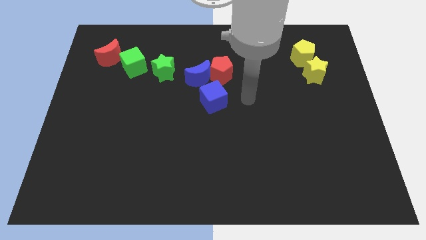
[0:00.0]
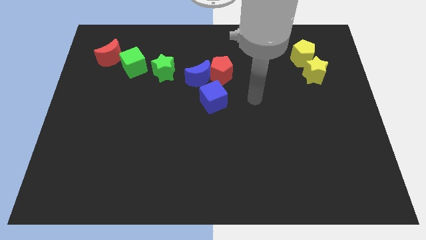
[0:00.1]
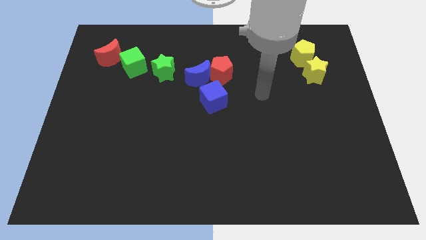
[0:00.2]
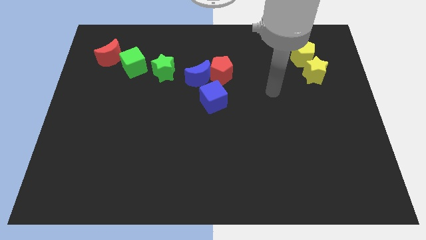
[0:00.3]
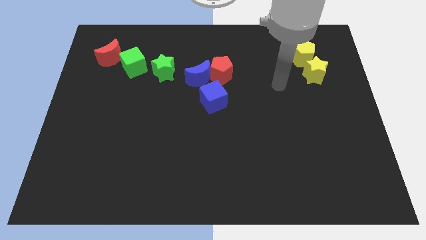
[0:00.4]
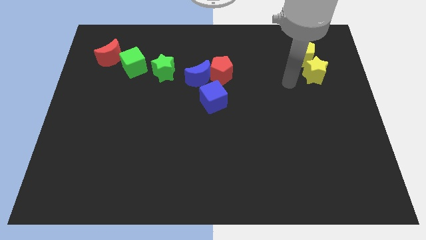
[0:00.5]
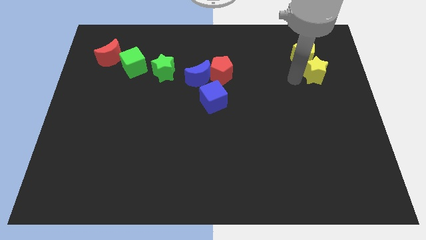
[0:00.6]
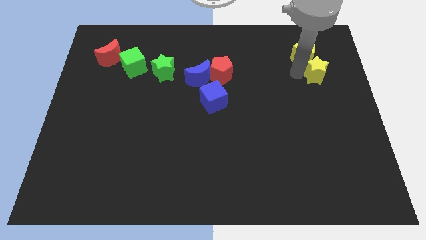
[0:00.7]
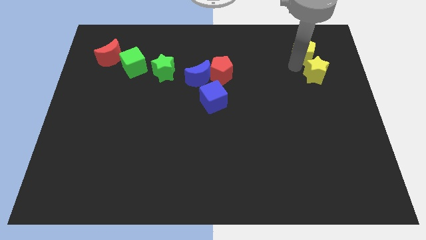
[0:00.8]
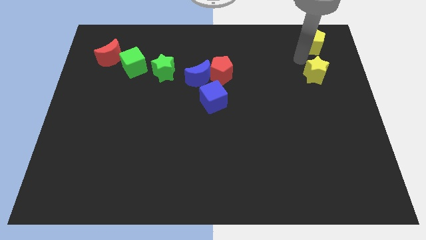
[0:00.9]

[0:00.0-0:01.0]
separate the yellow star from the yellow pentagon

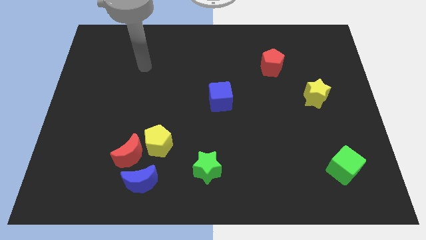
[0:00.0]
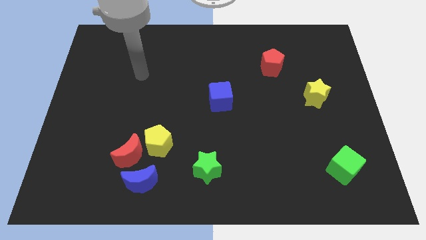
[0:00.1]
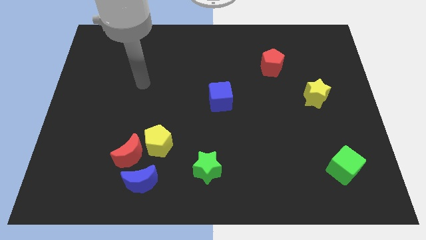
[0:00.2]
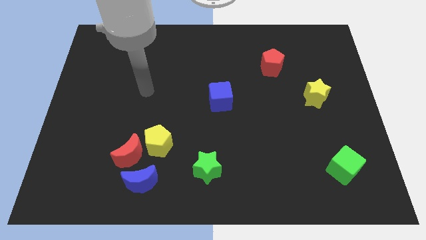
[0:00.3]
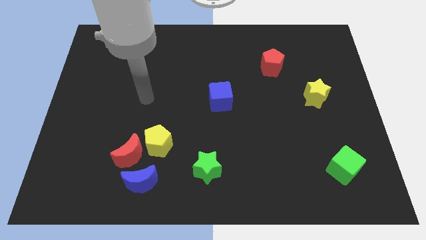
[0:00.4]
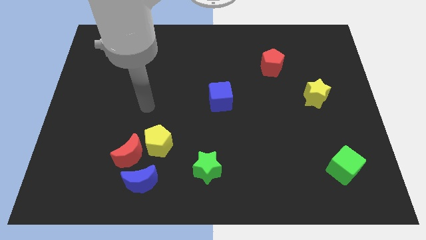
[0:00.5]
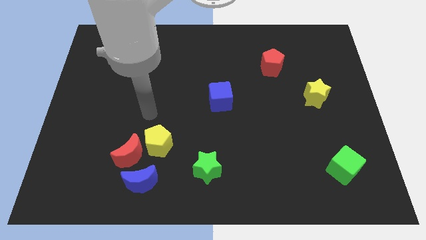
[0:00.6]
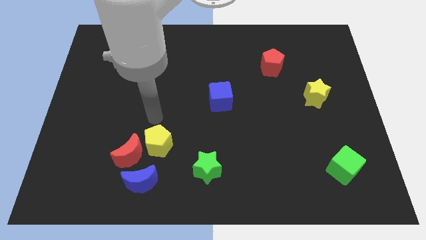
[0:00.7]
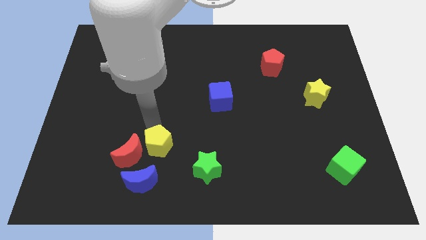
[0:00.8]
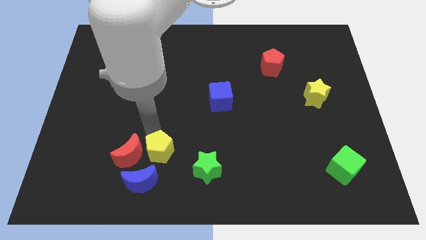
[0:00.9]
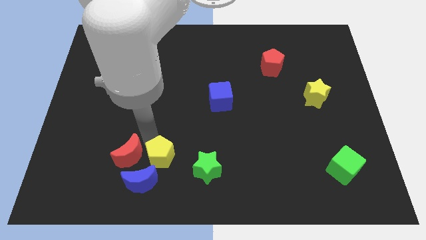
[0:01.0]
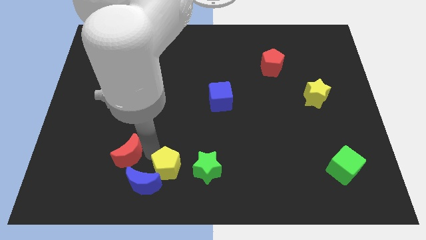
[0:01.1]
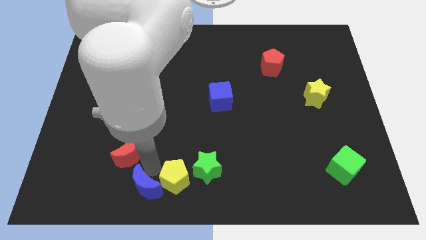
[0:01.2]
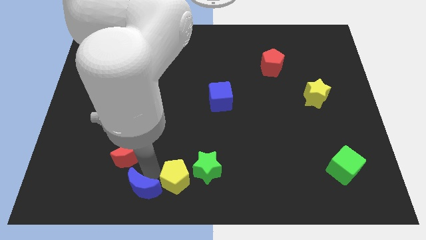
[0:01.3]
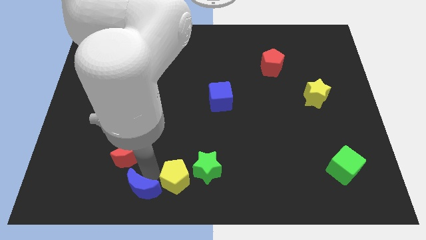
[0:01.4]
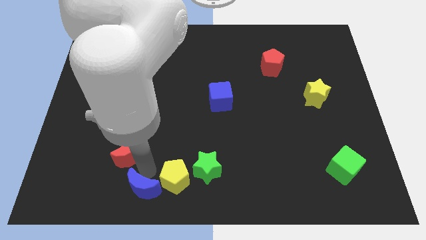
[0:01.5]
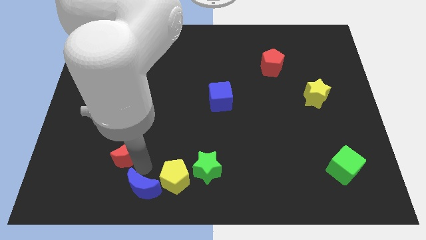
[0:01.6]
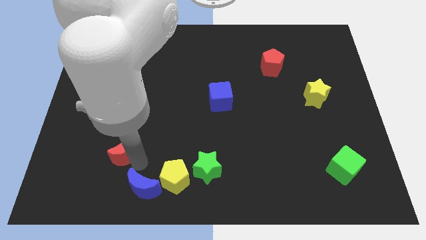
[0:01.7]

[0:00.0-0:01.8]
pull the red moon apart from the yellow pentagon and blue moon

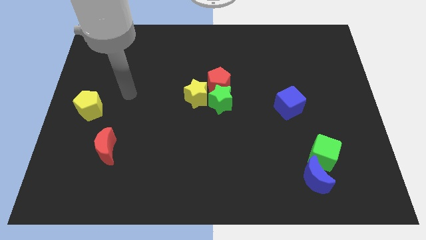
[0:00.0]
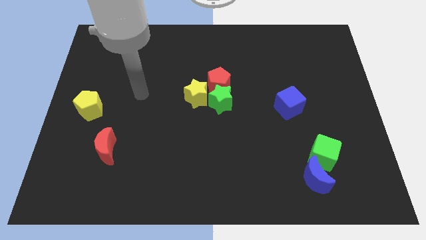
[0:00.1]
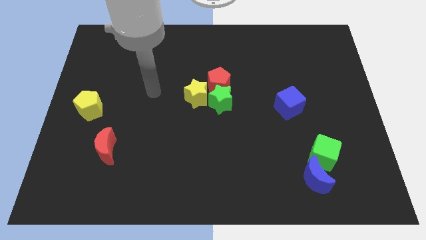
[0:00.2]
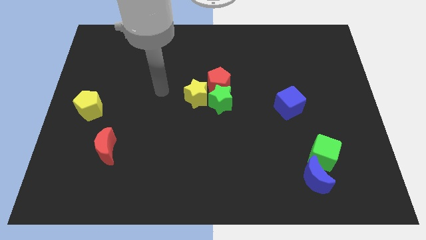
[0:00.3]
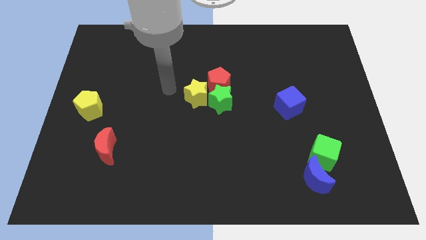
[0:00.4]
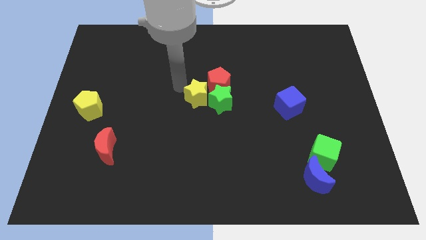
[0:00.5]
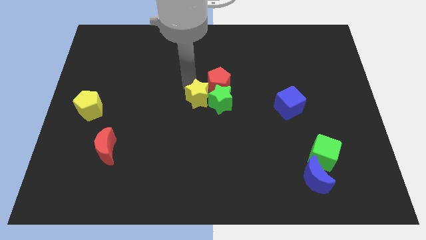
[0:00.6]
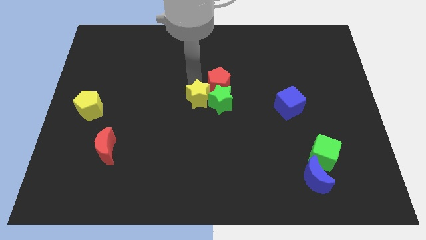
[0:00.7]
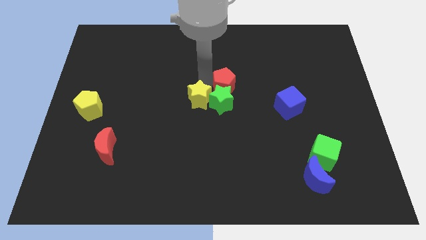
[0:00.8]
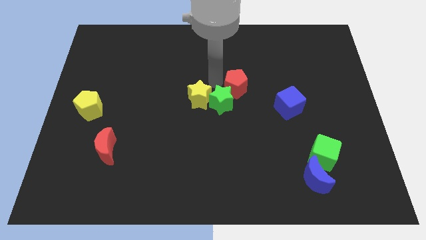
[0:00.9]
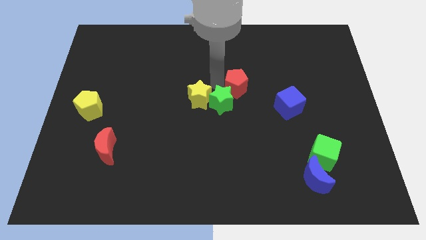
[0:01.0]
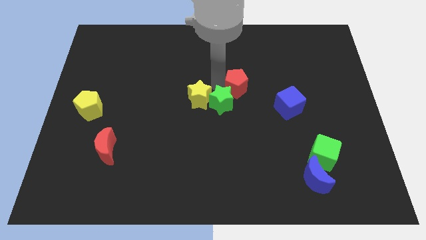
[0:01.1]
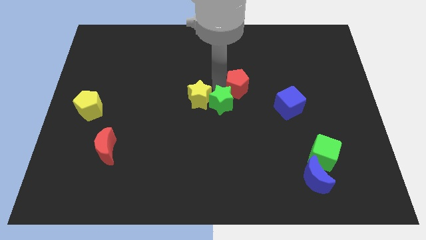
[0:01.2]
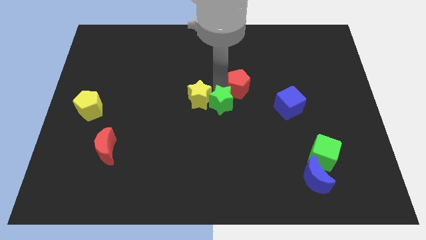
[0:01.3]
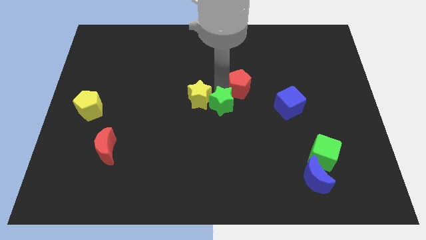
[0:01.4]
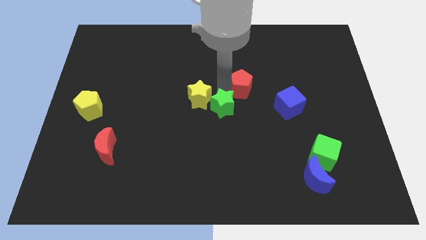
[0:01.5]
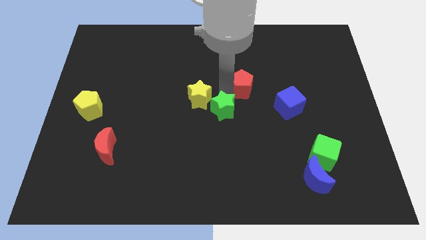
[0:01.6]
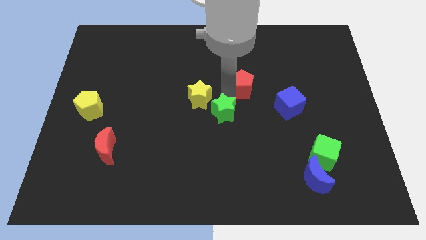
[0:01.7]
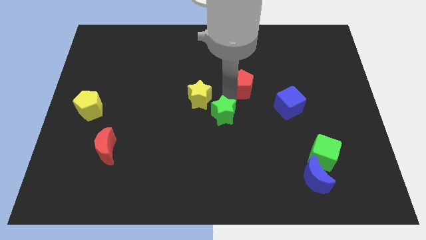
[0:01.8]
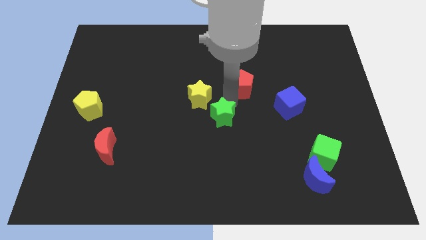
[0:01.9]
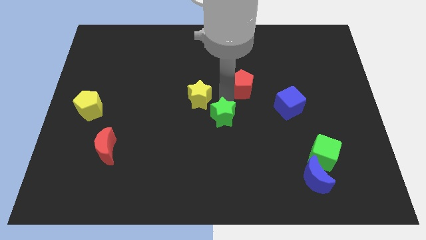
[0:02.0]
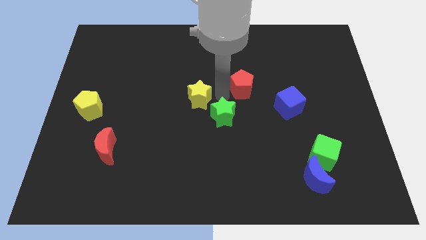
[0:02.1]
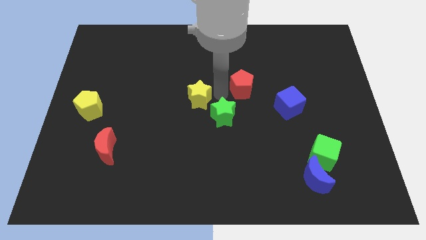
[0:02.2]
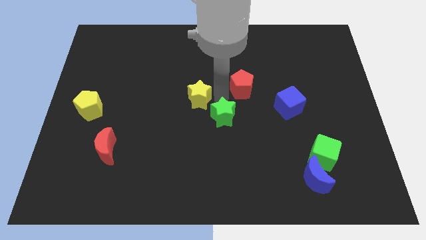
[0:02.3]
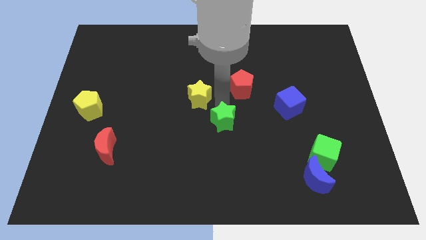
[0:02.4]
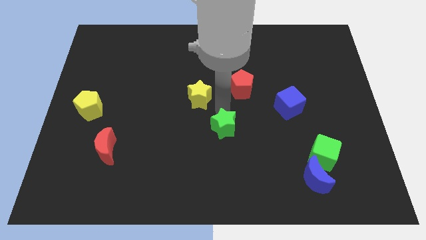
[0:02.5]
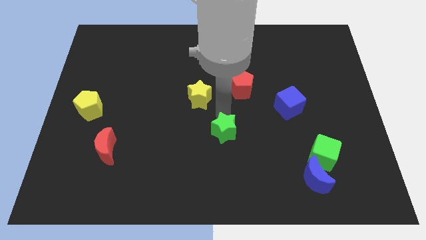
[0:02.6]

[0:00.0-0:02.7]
pull the green star apart from the red pentagon and yellow star

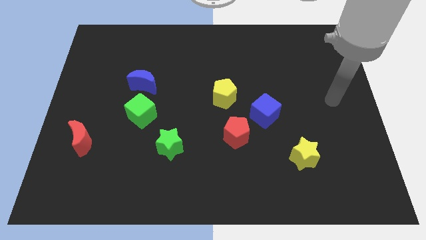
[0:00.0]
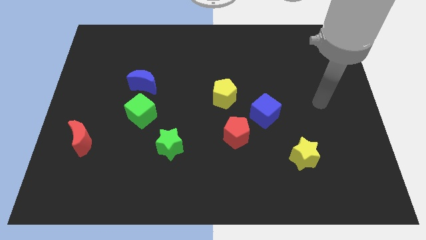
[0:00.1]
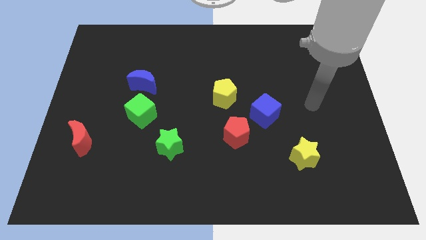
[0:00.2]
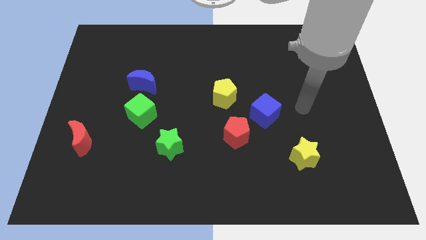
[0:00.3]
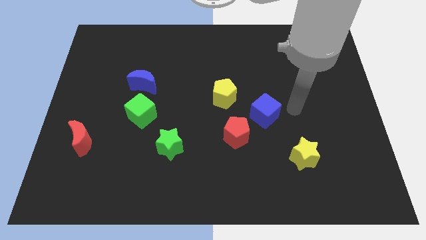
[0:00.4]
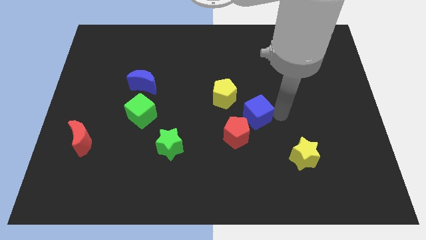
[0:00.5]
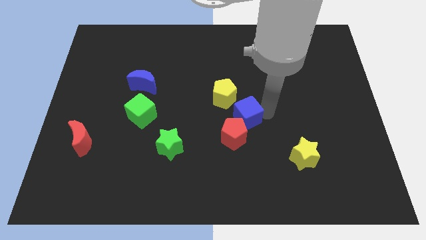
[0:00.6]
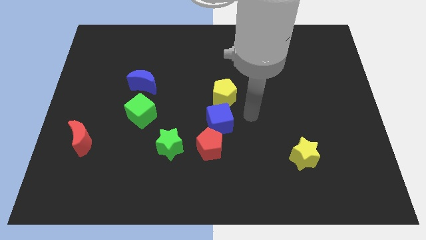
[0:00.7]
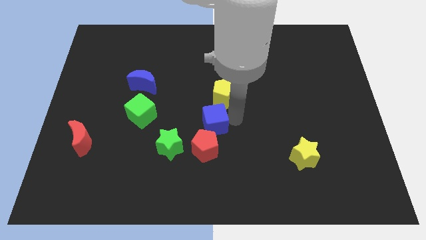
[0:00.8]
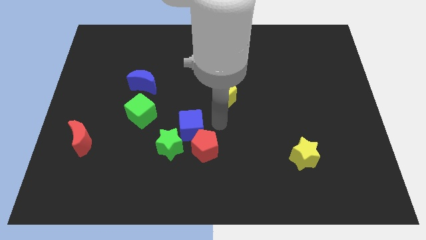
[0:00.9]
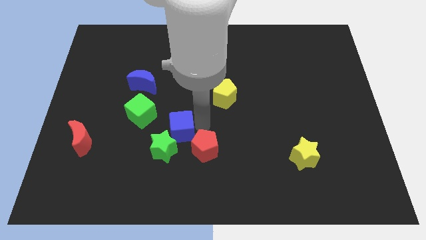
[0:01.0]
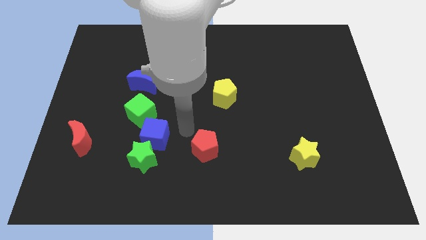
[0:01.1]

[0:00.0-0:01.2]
separate the red pentagon from the blue cube

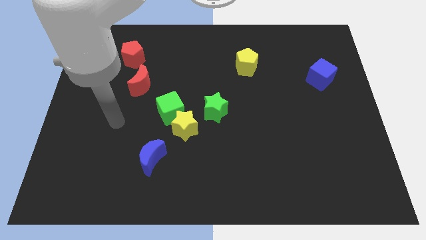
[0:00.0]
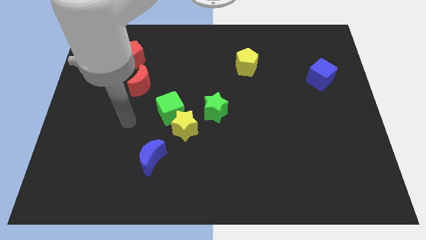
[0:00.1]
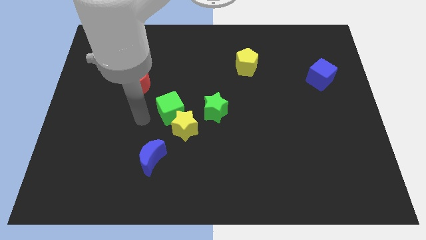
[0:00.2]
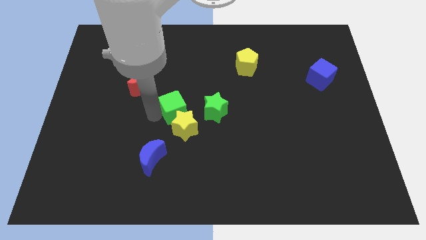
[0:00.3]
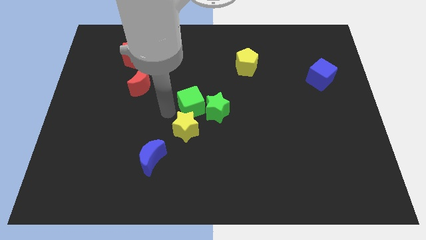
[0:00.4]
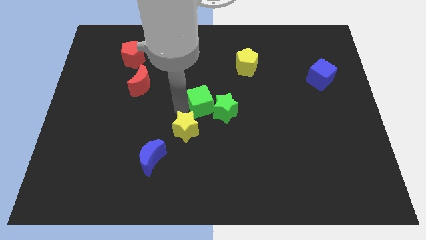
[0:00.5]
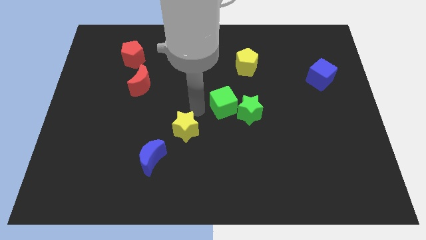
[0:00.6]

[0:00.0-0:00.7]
move the yellow star away from the green cube and green star

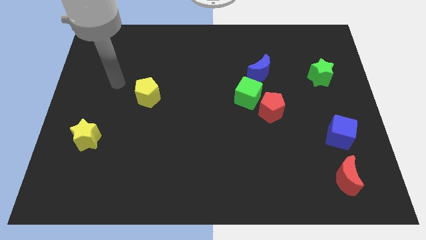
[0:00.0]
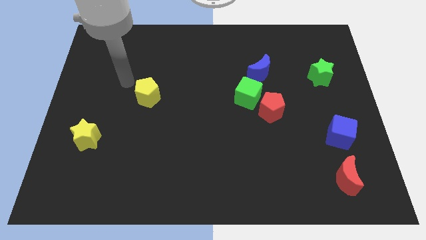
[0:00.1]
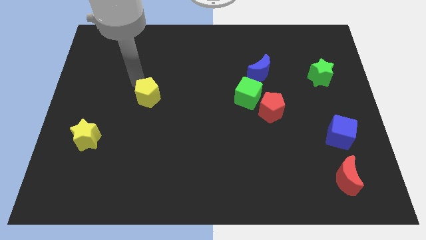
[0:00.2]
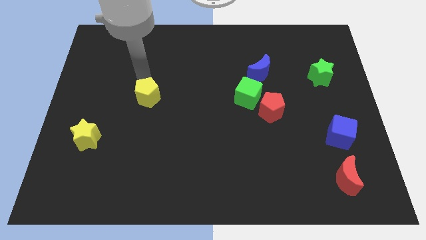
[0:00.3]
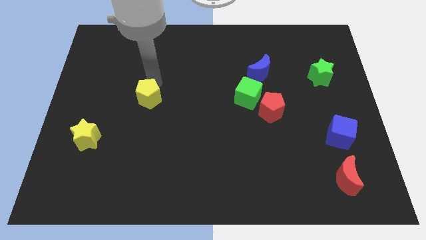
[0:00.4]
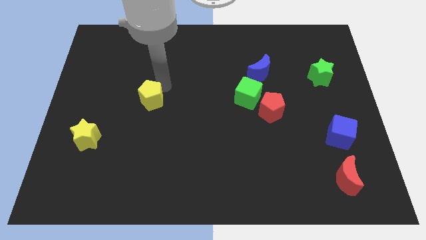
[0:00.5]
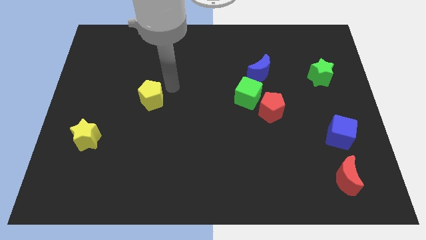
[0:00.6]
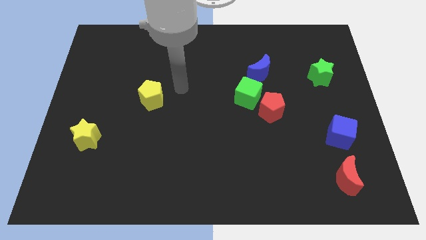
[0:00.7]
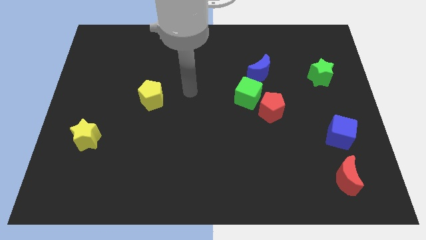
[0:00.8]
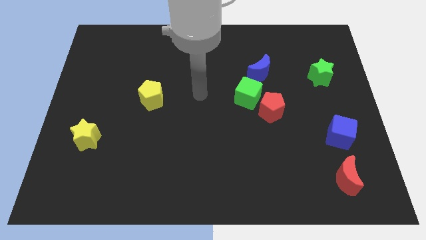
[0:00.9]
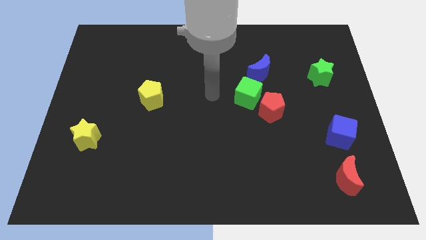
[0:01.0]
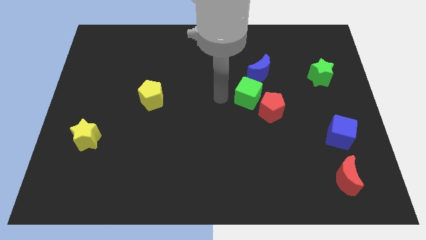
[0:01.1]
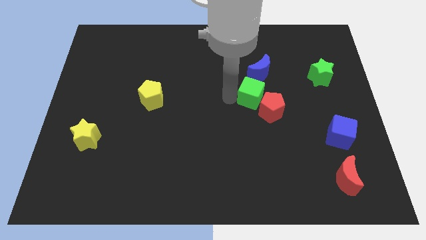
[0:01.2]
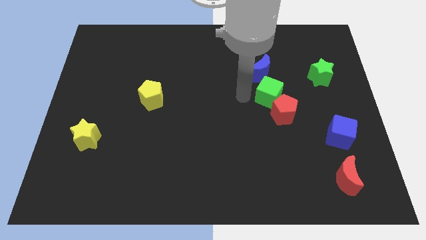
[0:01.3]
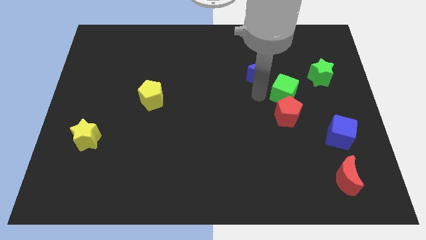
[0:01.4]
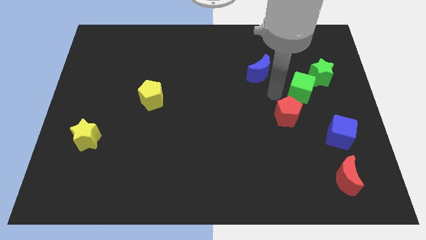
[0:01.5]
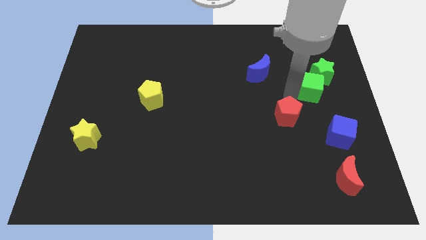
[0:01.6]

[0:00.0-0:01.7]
pull the red pentagon apart from the green cube
